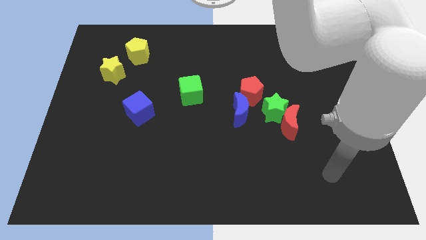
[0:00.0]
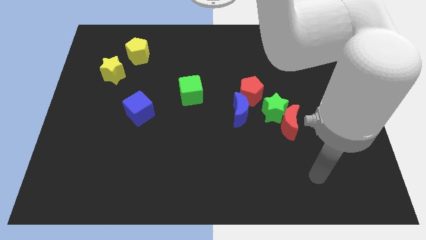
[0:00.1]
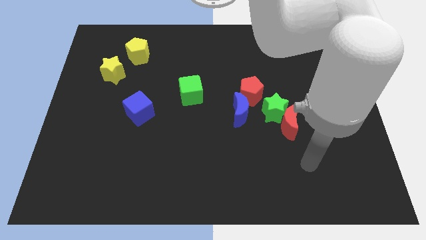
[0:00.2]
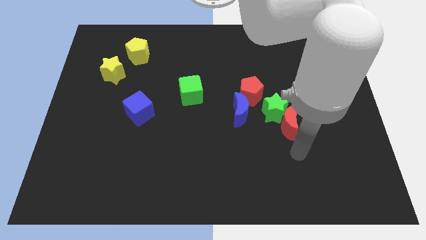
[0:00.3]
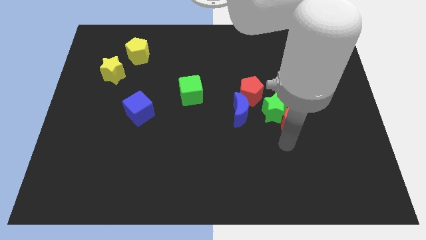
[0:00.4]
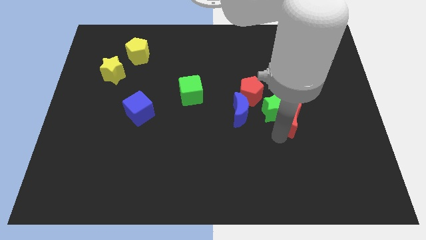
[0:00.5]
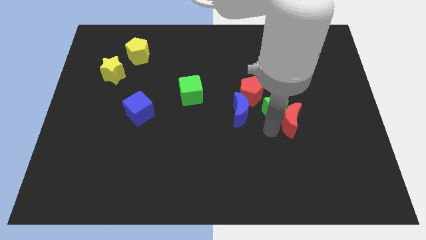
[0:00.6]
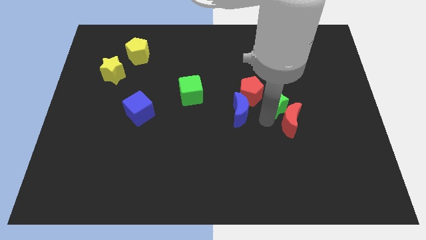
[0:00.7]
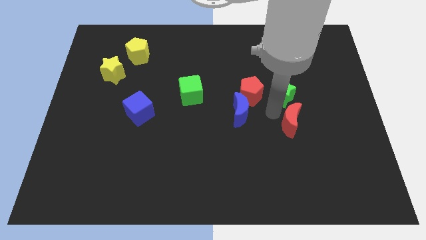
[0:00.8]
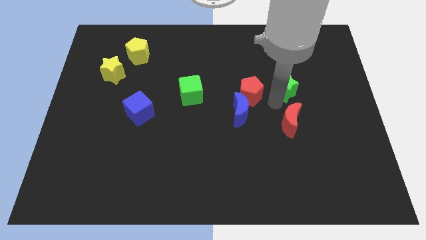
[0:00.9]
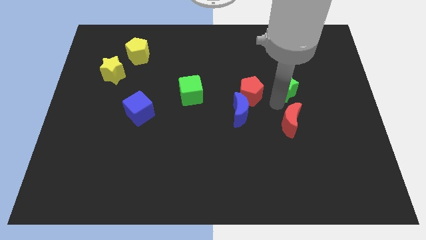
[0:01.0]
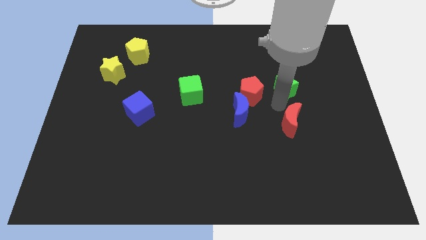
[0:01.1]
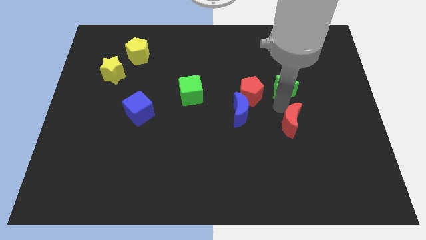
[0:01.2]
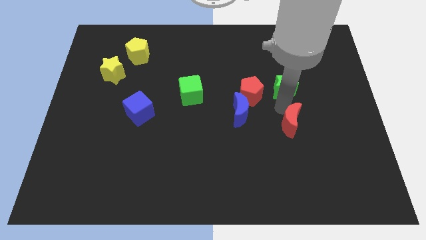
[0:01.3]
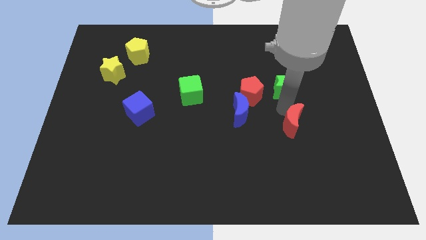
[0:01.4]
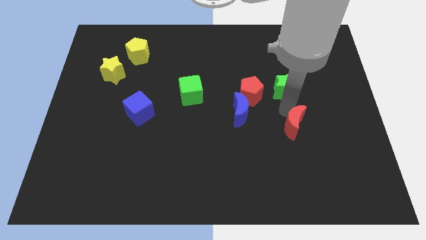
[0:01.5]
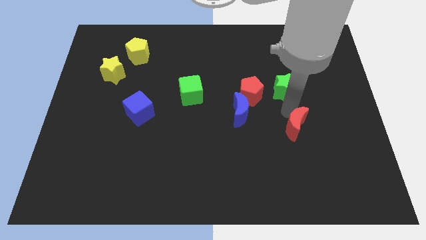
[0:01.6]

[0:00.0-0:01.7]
move the red moon away from the green star

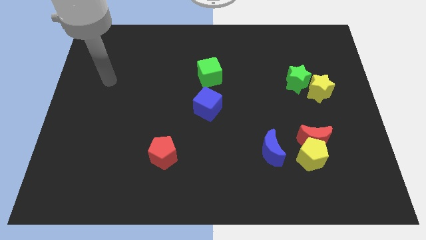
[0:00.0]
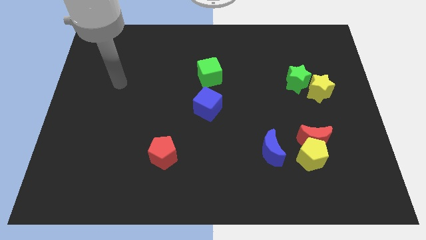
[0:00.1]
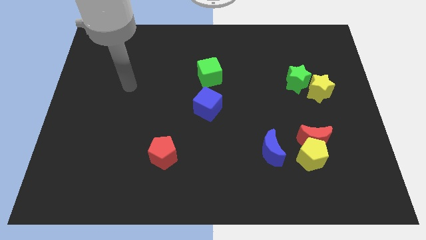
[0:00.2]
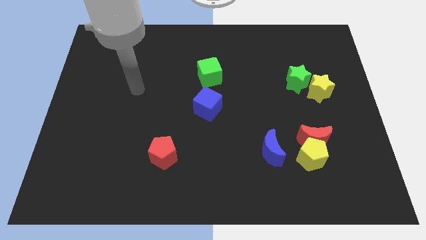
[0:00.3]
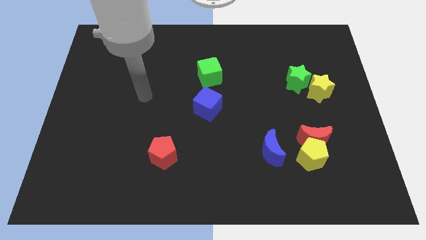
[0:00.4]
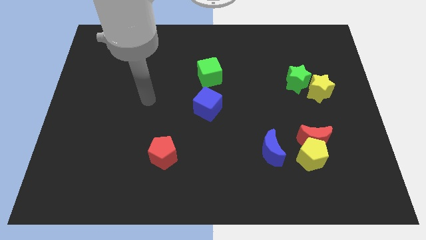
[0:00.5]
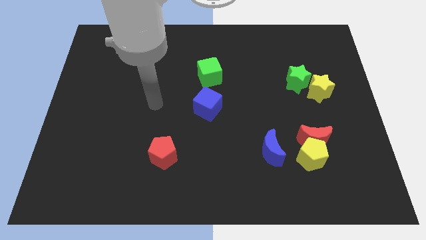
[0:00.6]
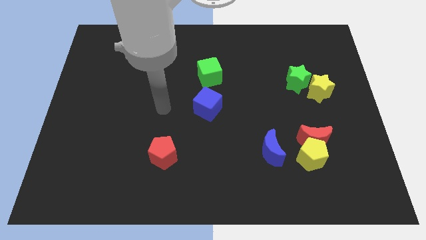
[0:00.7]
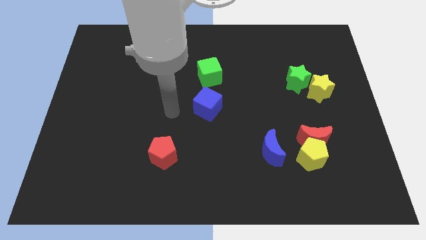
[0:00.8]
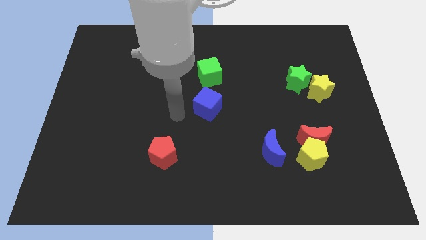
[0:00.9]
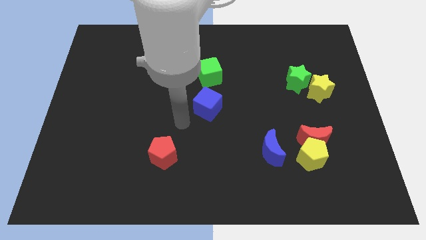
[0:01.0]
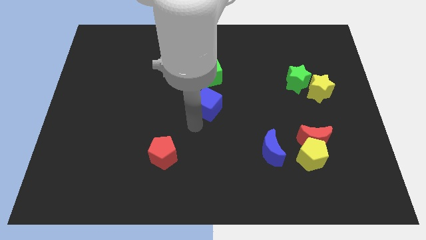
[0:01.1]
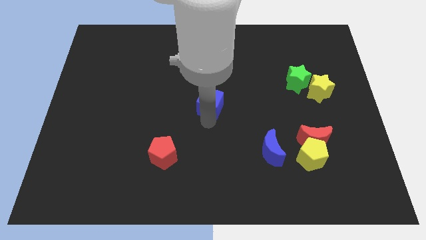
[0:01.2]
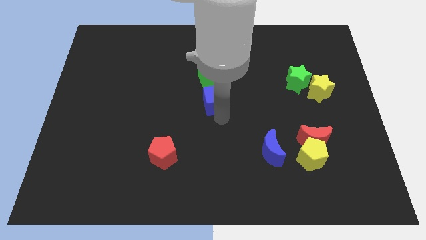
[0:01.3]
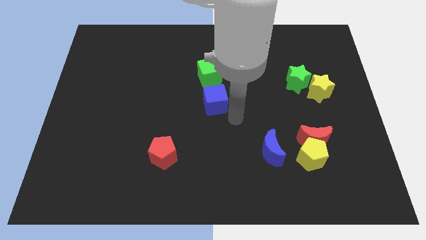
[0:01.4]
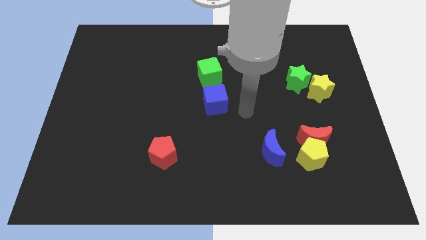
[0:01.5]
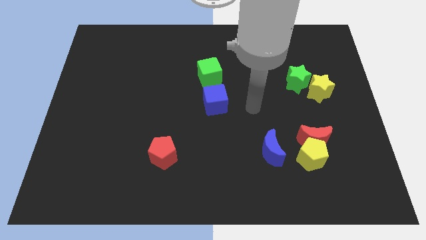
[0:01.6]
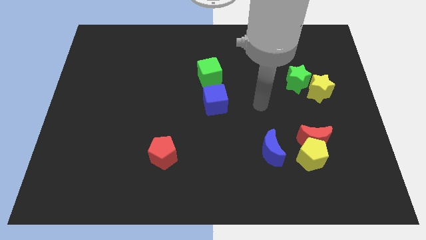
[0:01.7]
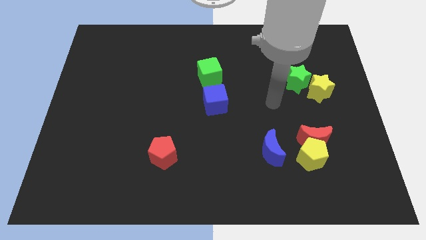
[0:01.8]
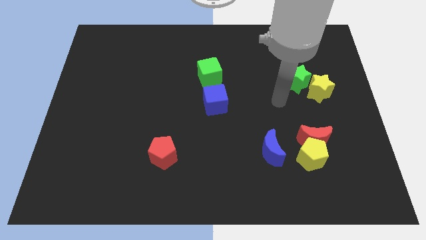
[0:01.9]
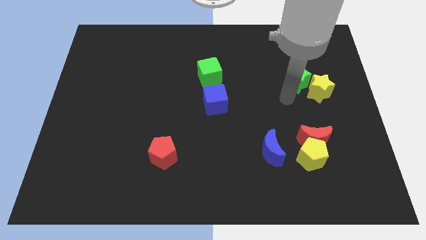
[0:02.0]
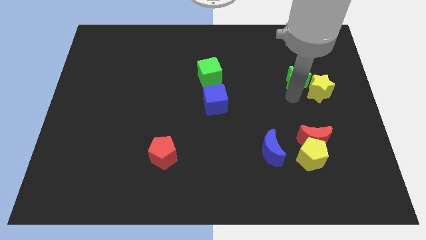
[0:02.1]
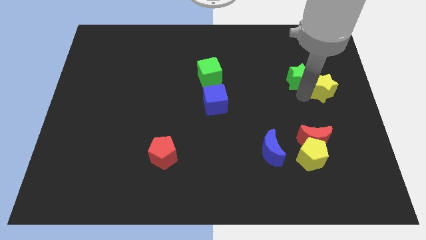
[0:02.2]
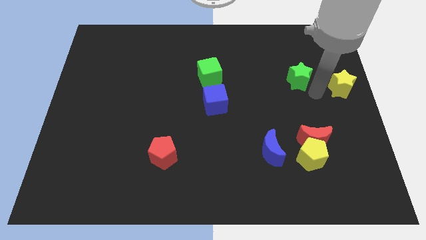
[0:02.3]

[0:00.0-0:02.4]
pull the green star apart from the yellow star

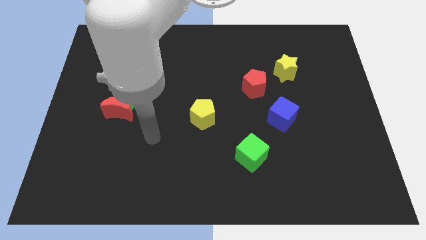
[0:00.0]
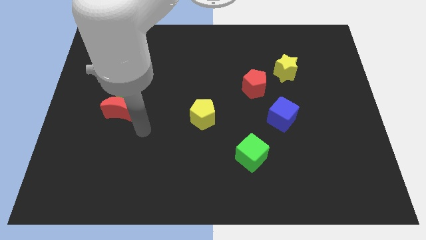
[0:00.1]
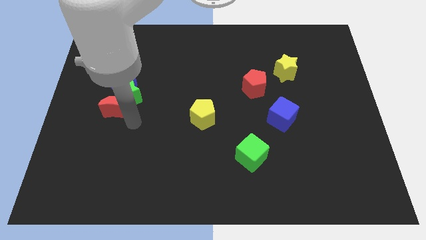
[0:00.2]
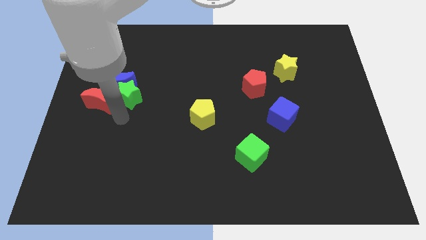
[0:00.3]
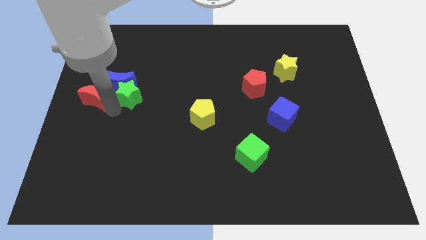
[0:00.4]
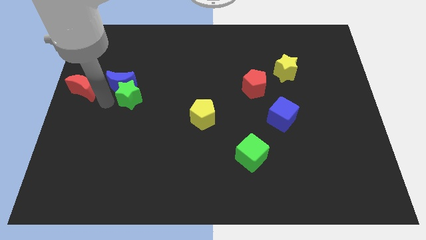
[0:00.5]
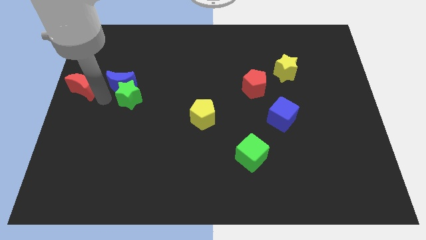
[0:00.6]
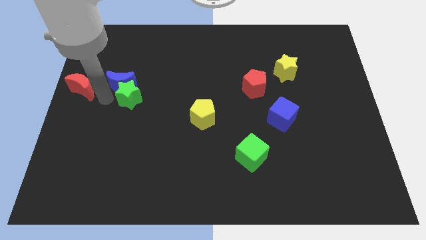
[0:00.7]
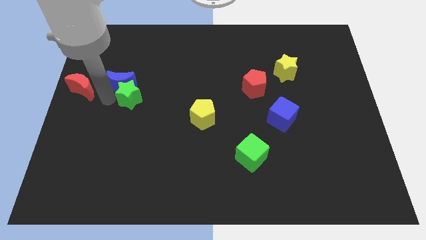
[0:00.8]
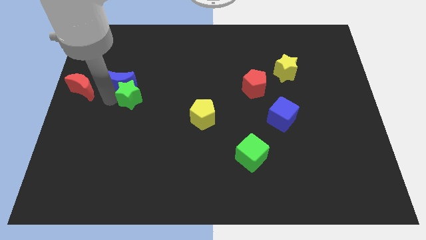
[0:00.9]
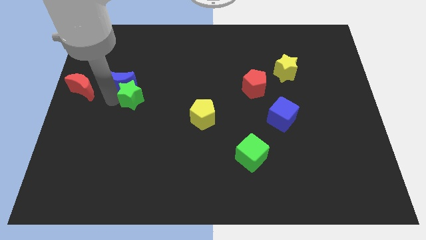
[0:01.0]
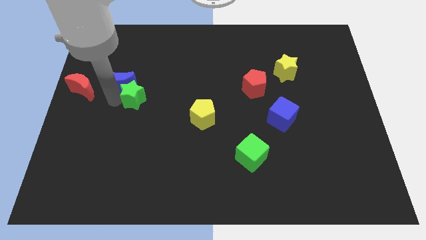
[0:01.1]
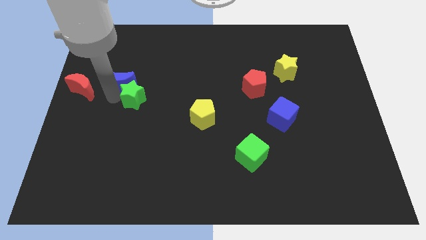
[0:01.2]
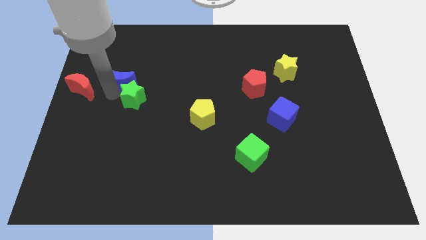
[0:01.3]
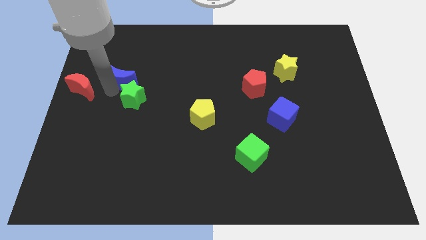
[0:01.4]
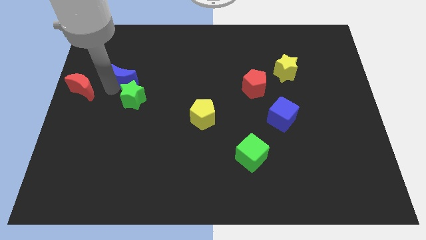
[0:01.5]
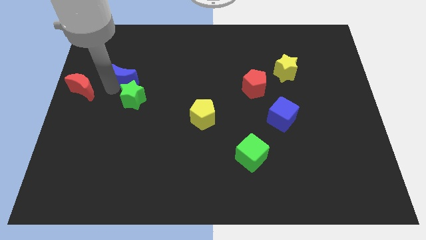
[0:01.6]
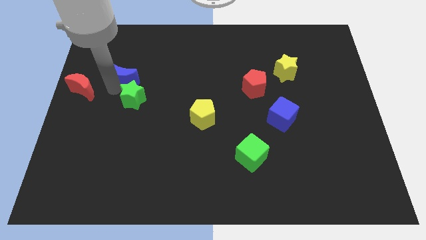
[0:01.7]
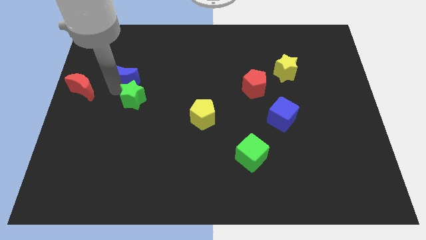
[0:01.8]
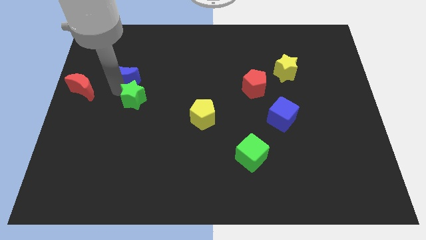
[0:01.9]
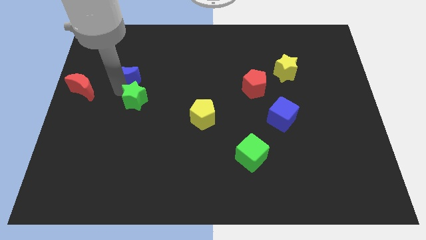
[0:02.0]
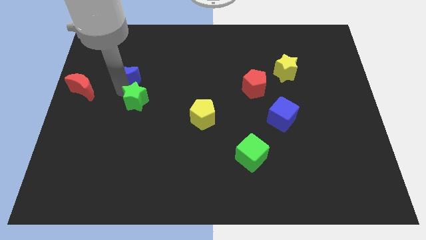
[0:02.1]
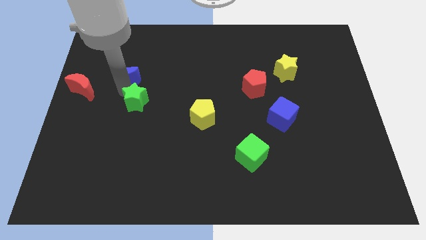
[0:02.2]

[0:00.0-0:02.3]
move the green star away from the blue moon and red moon

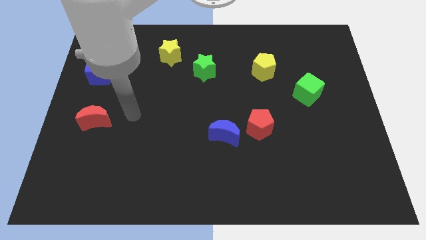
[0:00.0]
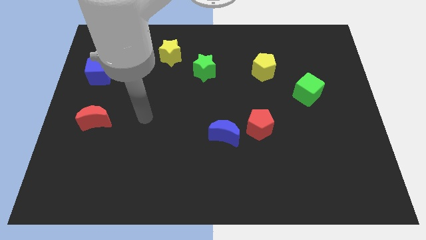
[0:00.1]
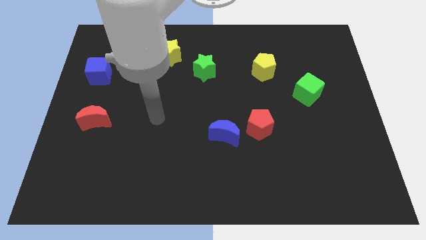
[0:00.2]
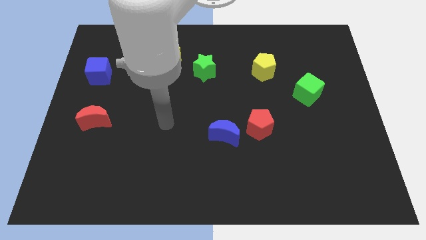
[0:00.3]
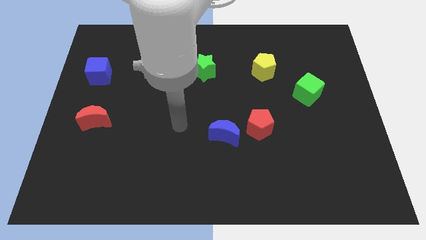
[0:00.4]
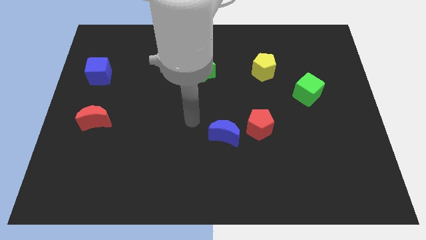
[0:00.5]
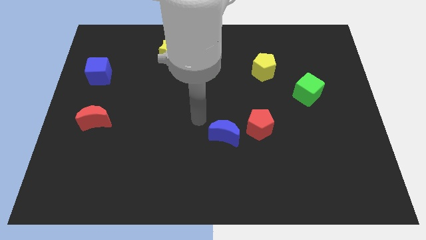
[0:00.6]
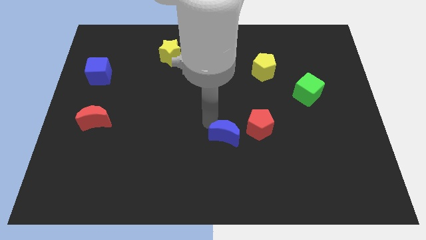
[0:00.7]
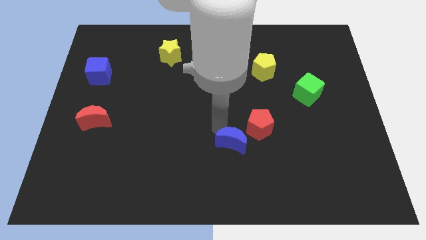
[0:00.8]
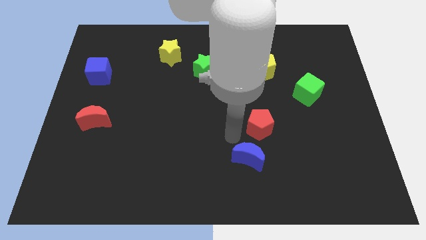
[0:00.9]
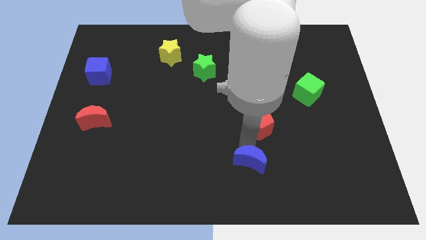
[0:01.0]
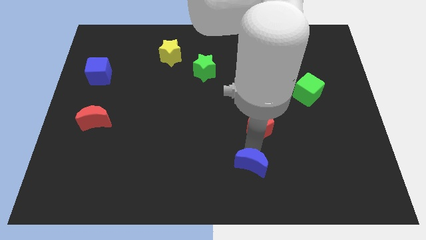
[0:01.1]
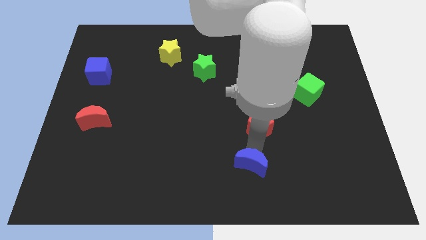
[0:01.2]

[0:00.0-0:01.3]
pull the red pentagon apart from the blue moon

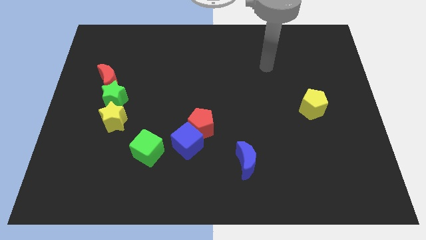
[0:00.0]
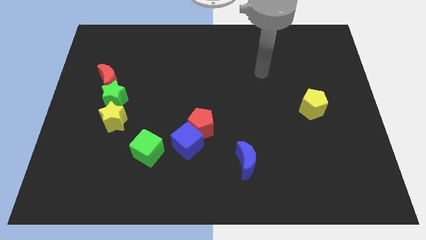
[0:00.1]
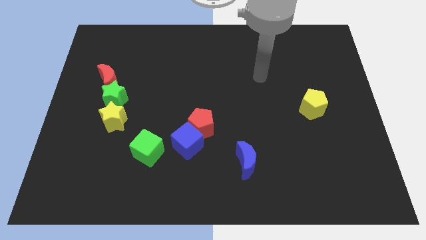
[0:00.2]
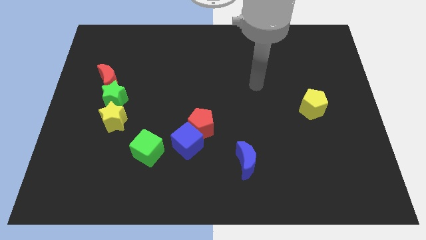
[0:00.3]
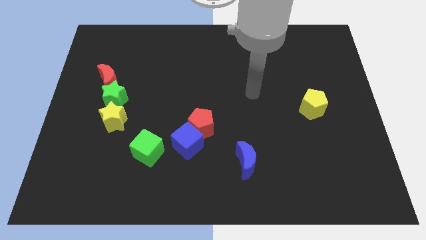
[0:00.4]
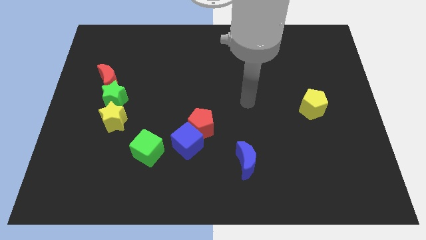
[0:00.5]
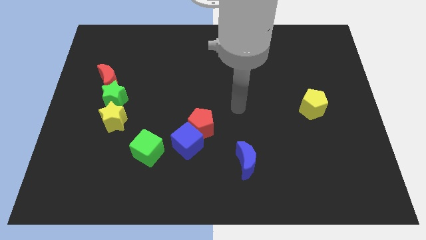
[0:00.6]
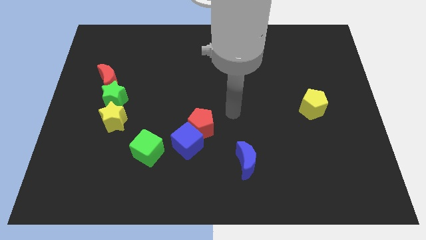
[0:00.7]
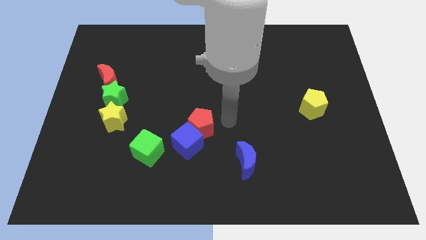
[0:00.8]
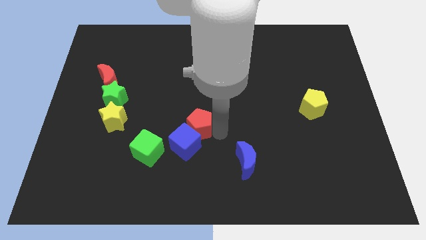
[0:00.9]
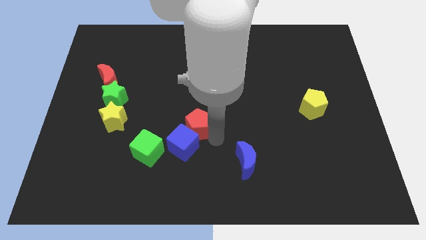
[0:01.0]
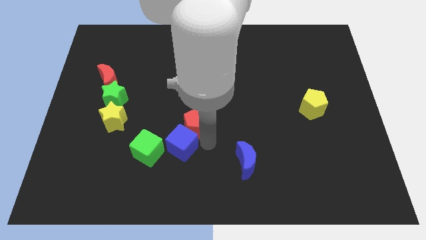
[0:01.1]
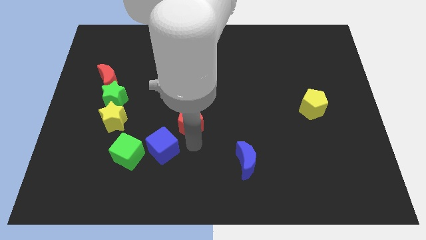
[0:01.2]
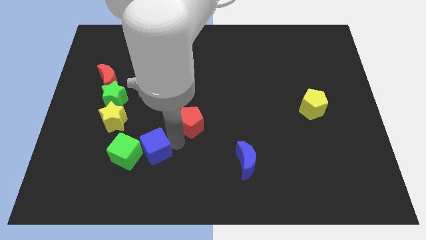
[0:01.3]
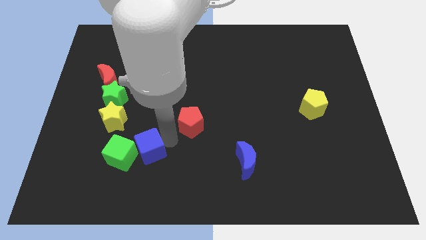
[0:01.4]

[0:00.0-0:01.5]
move the red pentagon away from the blue cube
